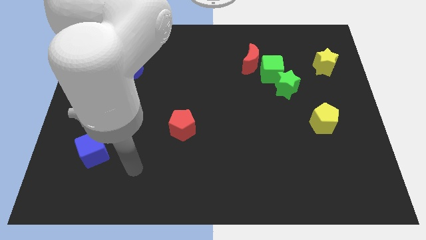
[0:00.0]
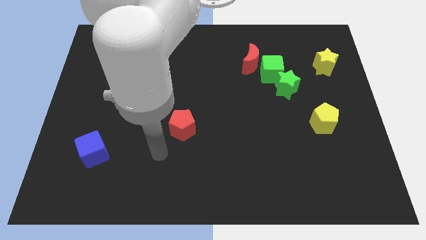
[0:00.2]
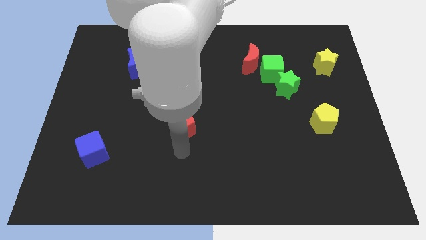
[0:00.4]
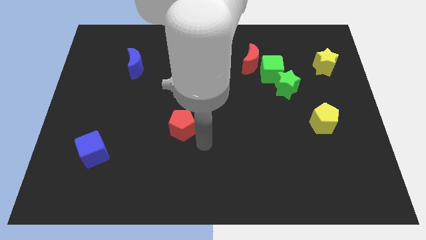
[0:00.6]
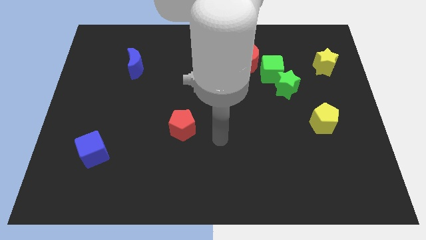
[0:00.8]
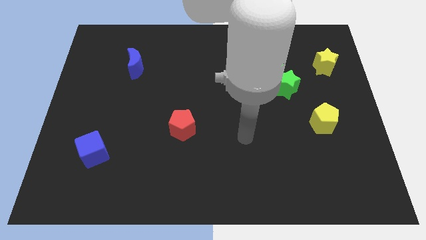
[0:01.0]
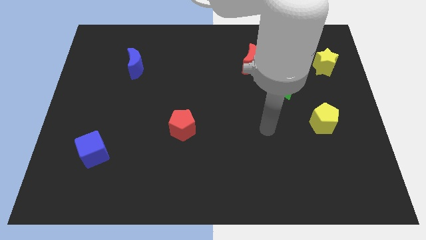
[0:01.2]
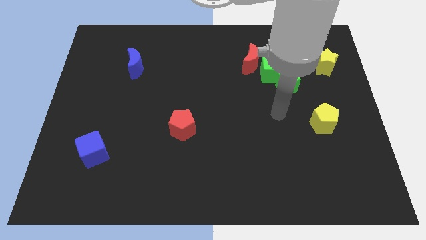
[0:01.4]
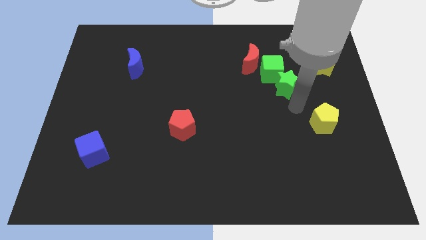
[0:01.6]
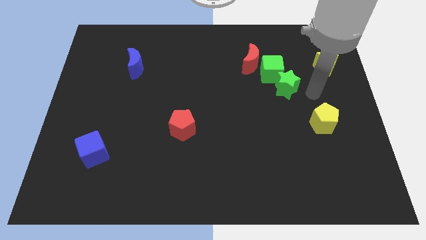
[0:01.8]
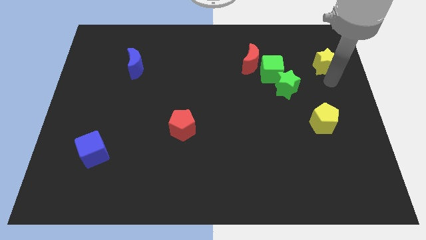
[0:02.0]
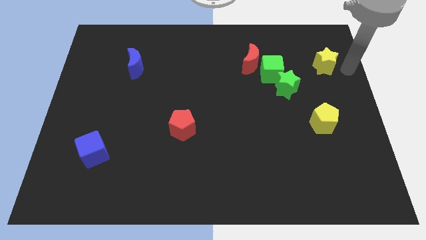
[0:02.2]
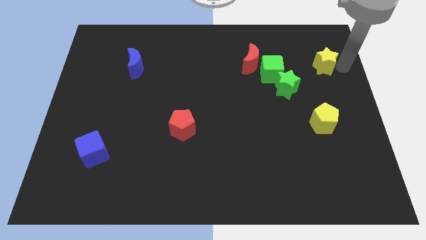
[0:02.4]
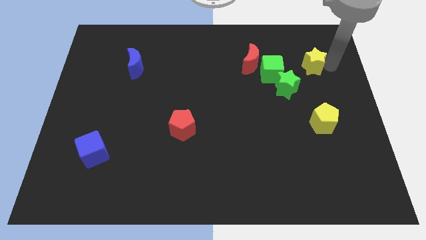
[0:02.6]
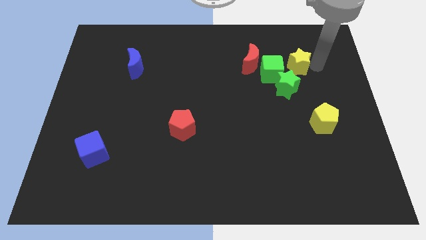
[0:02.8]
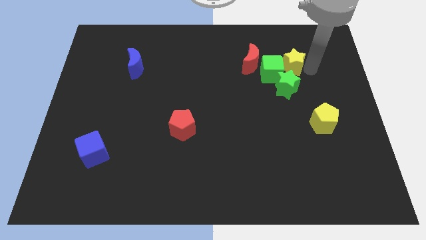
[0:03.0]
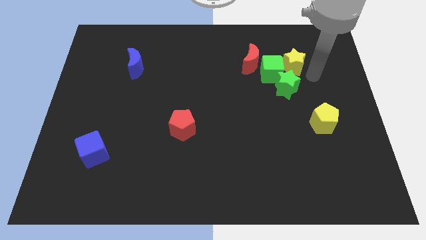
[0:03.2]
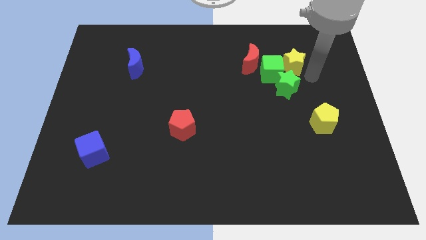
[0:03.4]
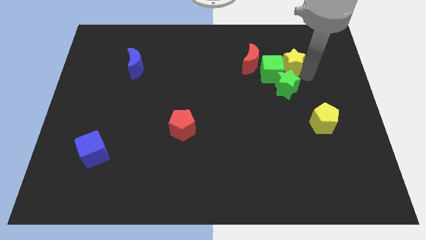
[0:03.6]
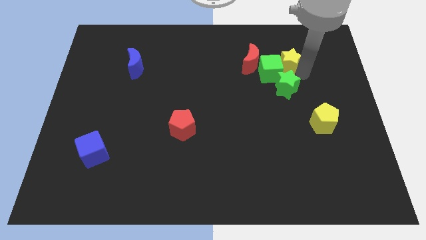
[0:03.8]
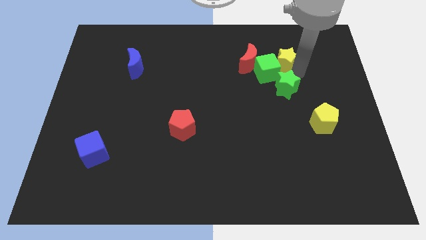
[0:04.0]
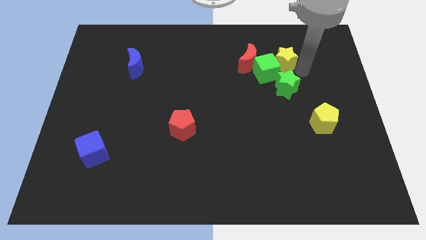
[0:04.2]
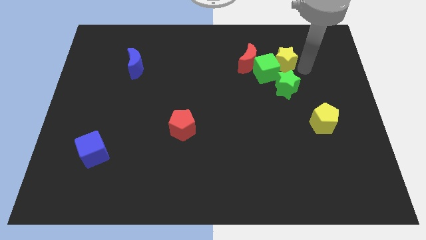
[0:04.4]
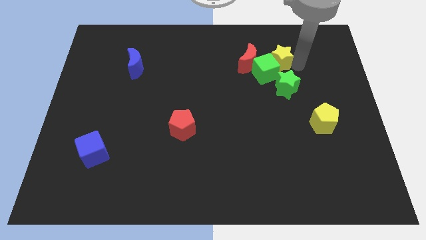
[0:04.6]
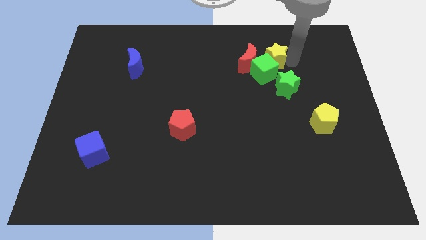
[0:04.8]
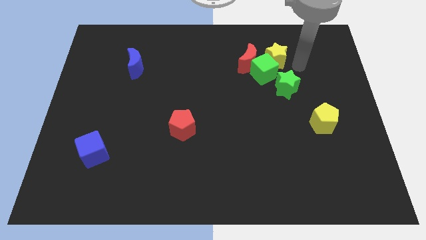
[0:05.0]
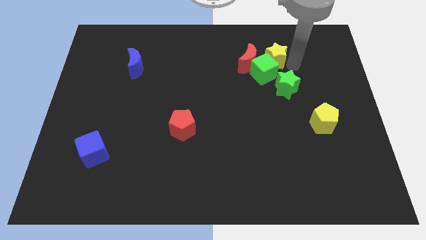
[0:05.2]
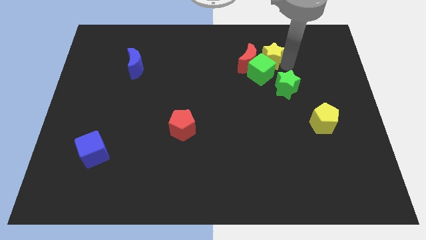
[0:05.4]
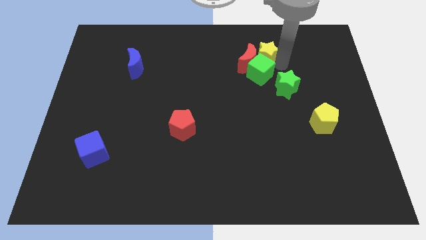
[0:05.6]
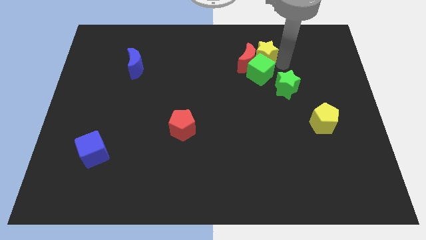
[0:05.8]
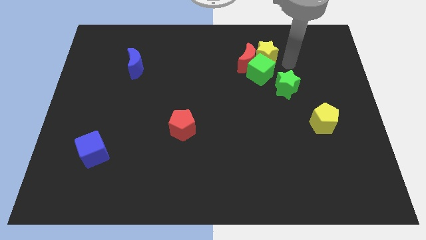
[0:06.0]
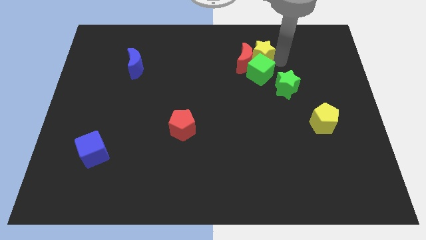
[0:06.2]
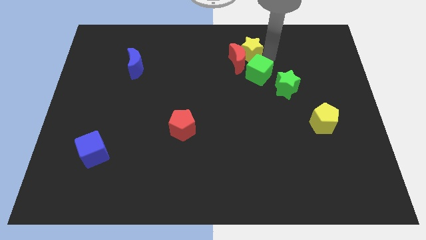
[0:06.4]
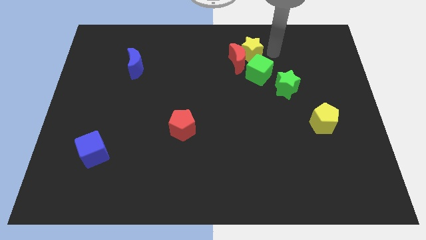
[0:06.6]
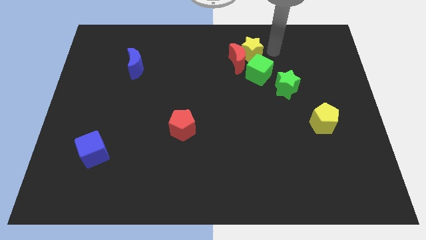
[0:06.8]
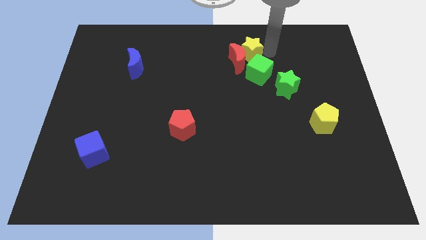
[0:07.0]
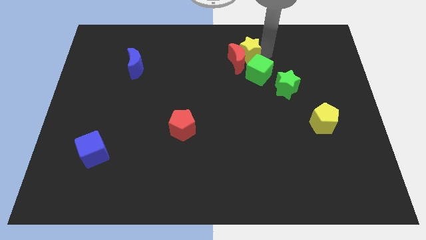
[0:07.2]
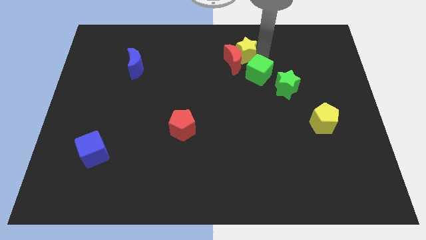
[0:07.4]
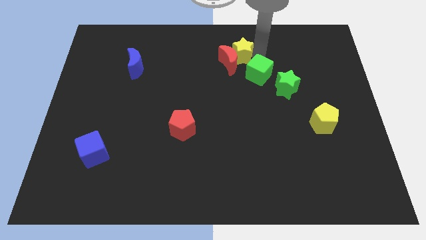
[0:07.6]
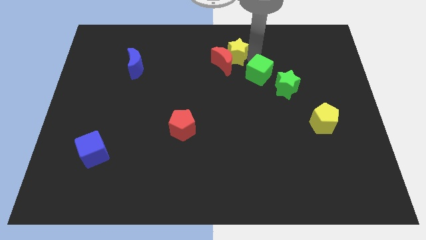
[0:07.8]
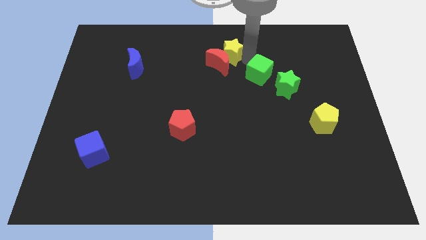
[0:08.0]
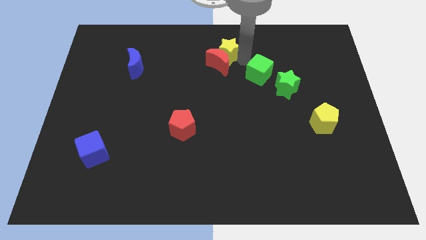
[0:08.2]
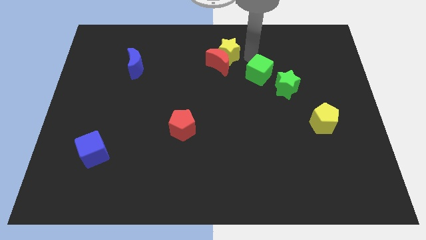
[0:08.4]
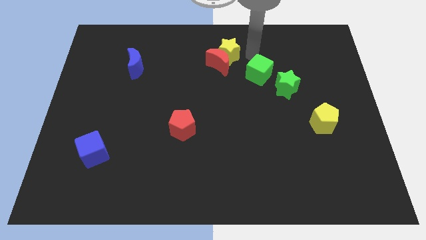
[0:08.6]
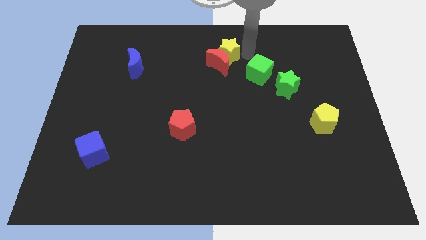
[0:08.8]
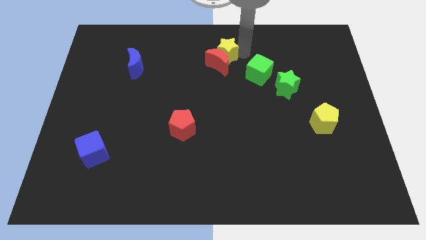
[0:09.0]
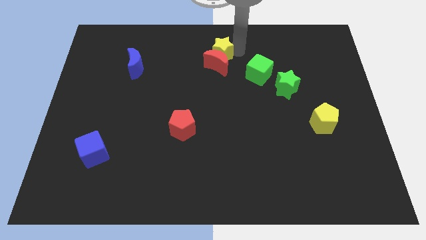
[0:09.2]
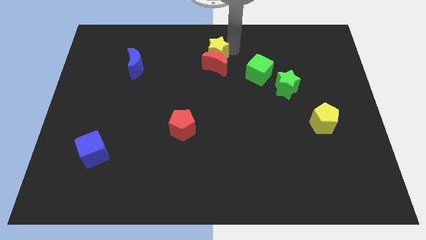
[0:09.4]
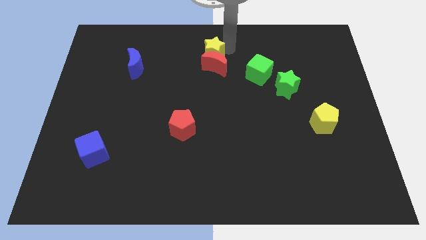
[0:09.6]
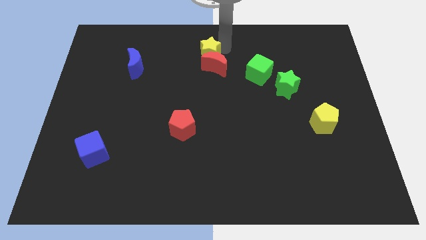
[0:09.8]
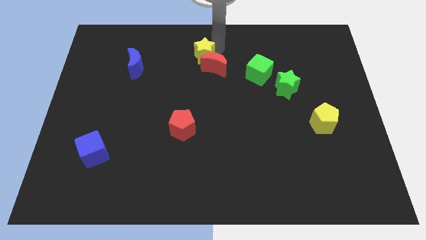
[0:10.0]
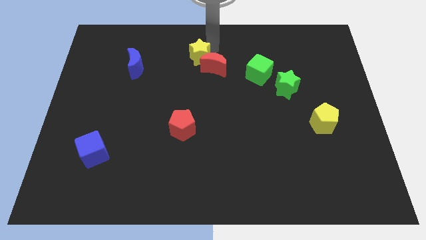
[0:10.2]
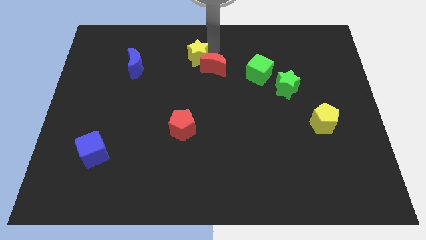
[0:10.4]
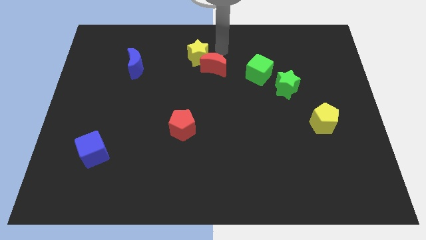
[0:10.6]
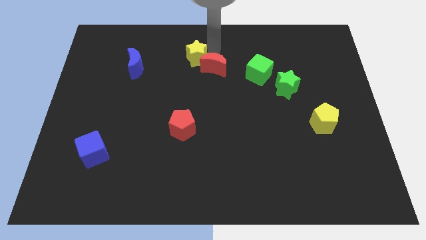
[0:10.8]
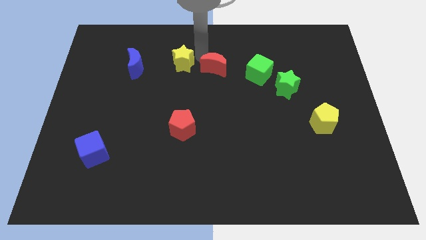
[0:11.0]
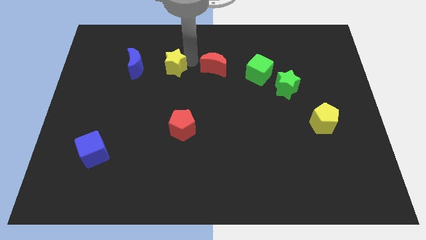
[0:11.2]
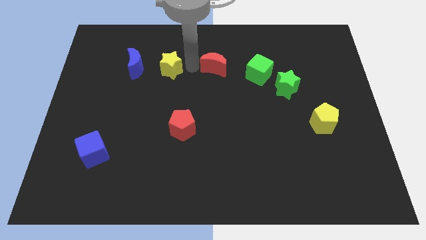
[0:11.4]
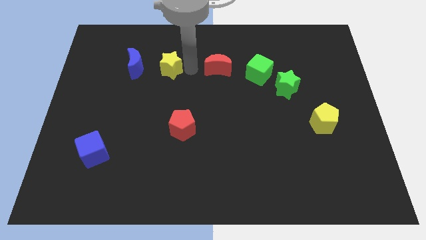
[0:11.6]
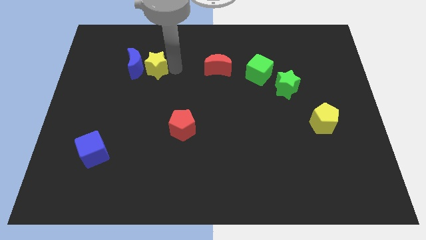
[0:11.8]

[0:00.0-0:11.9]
slide the yellow star next to the blue moon

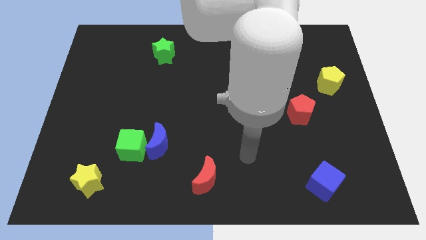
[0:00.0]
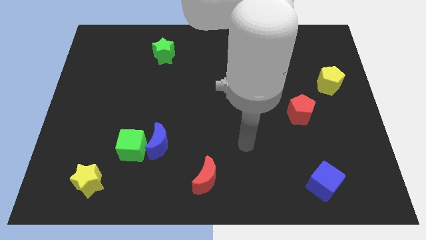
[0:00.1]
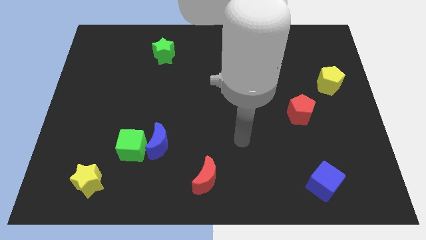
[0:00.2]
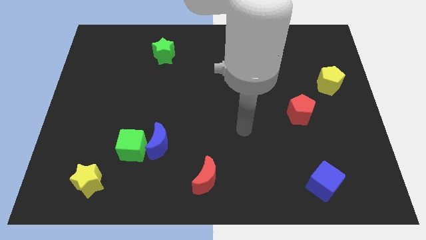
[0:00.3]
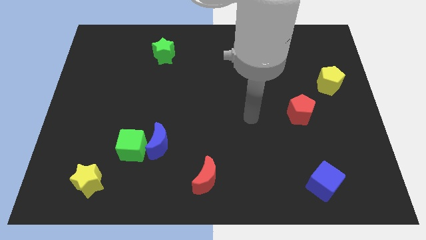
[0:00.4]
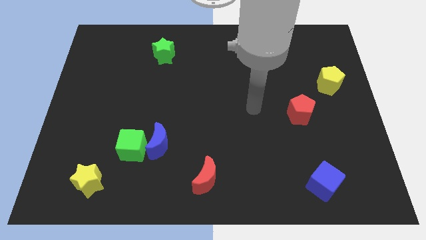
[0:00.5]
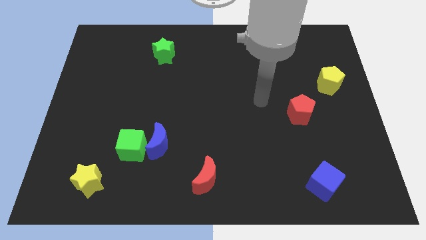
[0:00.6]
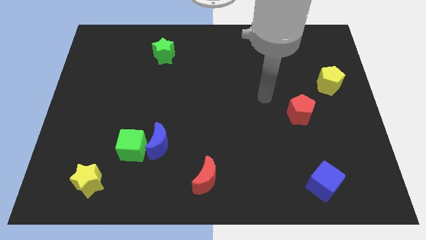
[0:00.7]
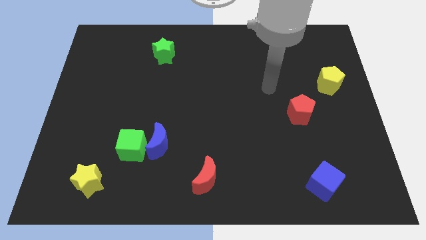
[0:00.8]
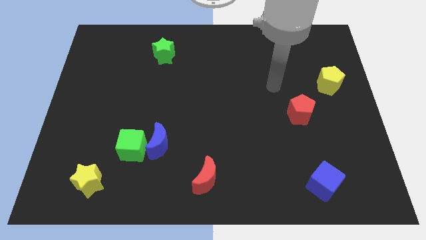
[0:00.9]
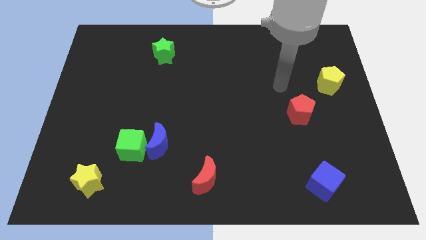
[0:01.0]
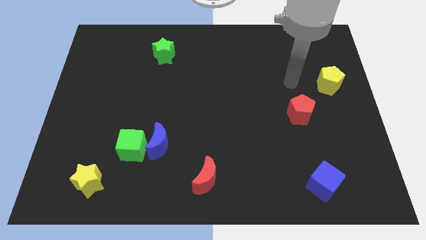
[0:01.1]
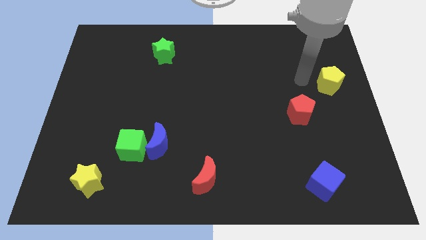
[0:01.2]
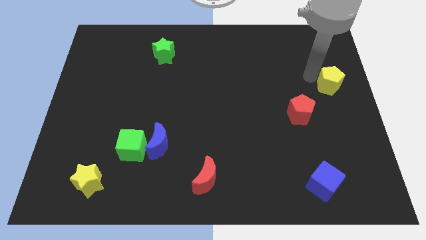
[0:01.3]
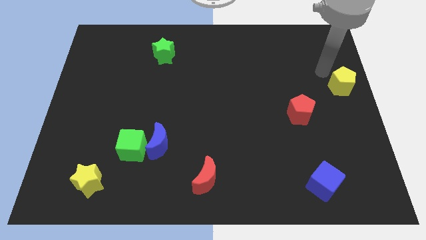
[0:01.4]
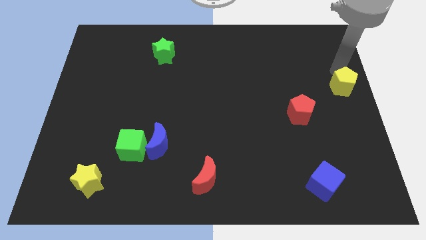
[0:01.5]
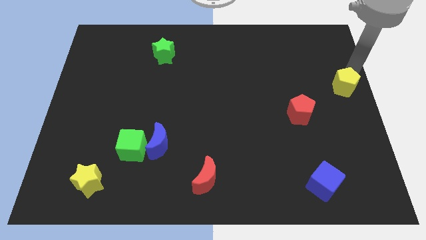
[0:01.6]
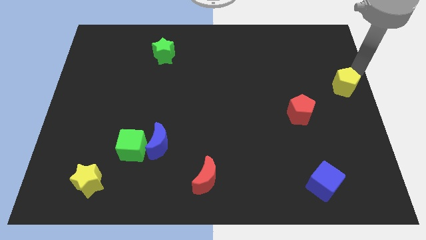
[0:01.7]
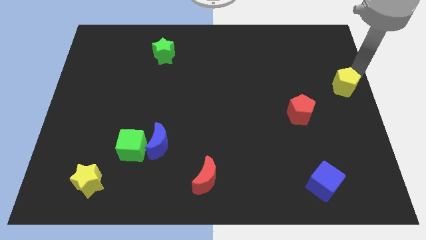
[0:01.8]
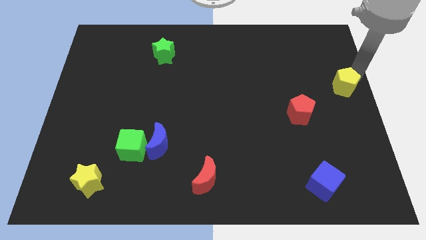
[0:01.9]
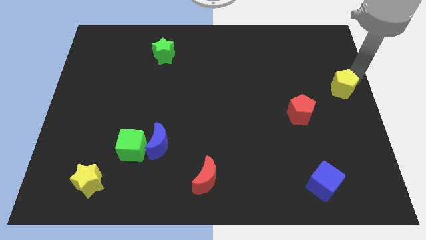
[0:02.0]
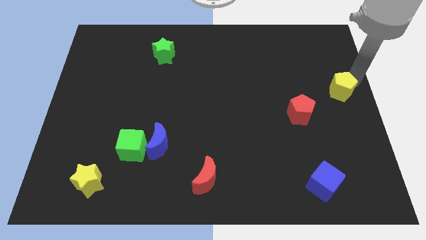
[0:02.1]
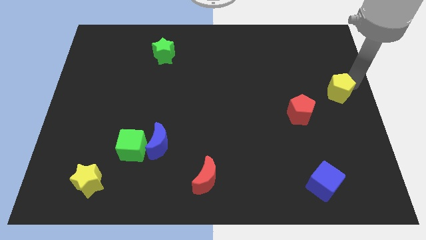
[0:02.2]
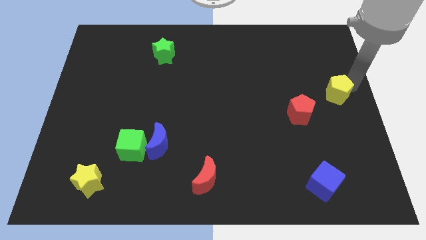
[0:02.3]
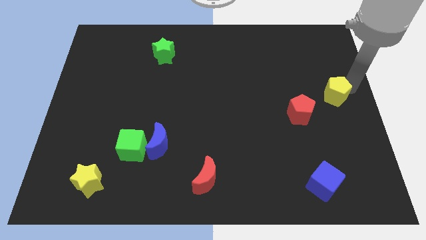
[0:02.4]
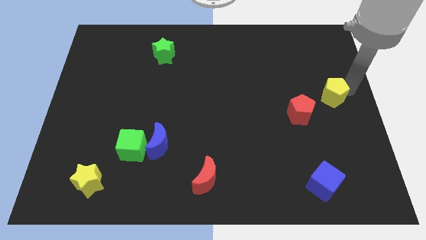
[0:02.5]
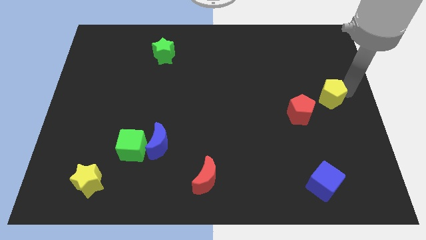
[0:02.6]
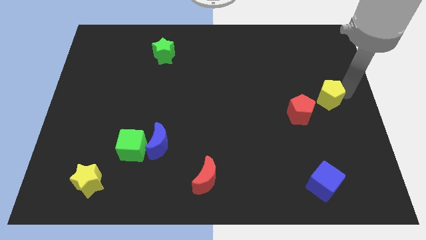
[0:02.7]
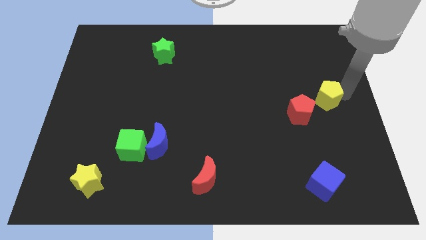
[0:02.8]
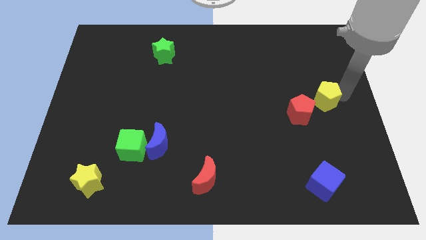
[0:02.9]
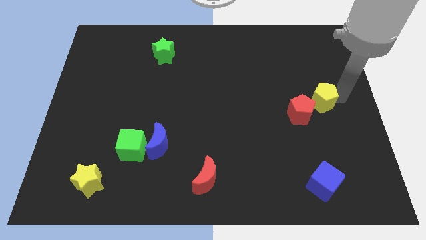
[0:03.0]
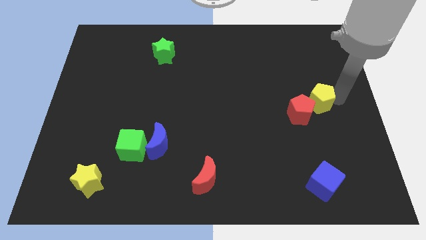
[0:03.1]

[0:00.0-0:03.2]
slide the yellow pentagon to the red pentagon
